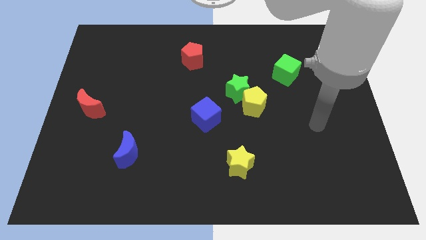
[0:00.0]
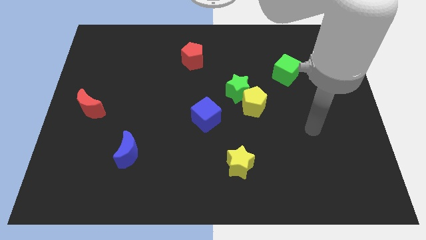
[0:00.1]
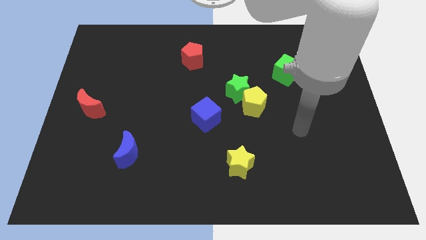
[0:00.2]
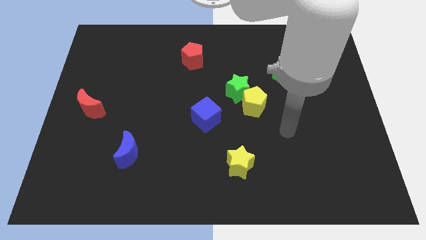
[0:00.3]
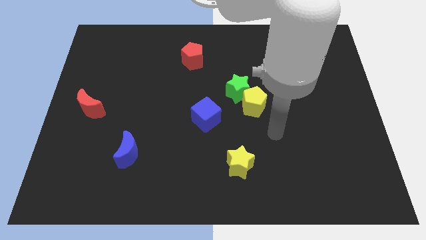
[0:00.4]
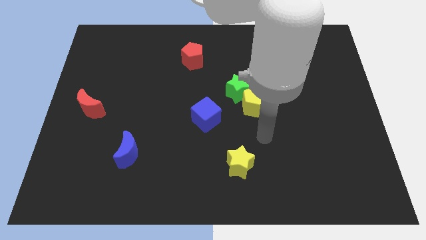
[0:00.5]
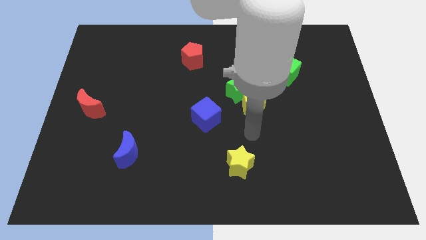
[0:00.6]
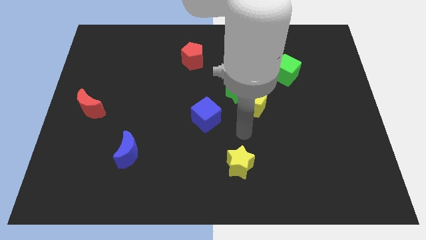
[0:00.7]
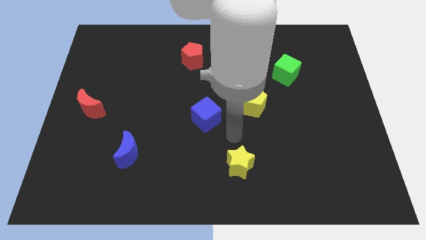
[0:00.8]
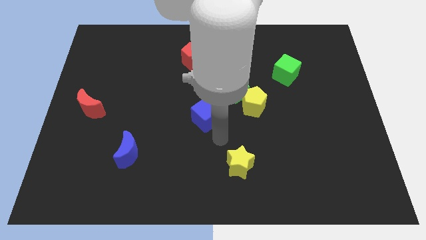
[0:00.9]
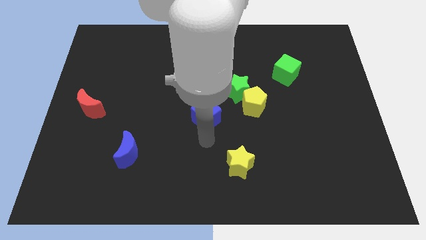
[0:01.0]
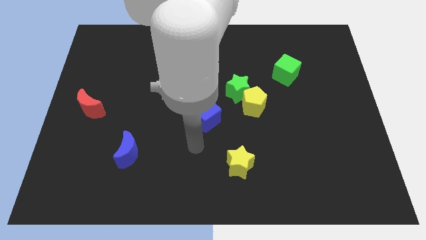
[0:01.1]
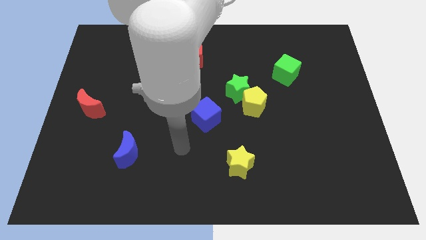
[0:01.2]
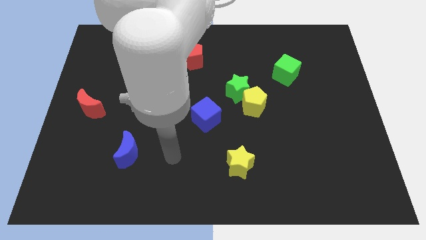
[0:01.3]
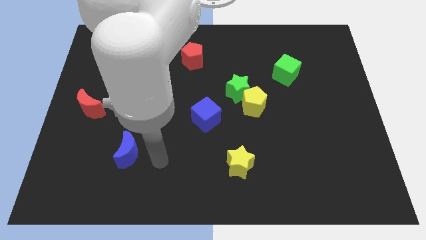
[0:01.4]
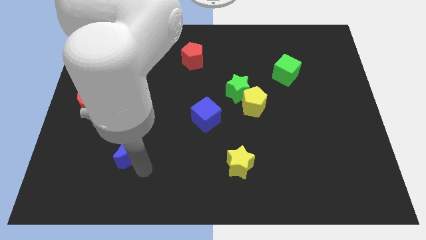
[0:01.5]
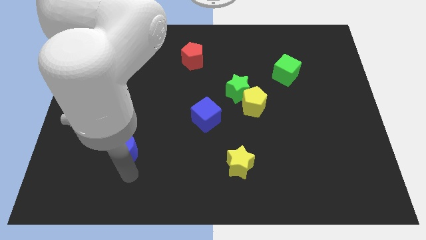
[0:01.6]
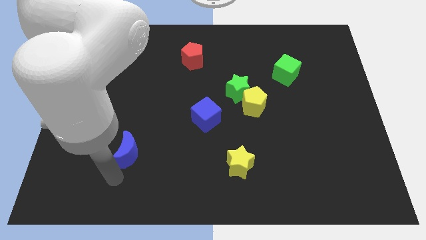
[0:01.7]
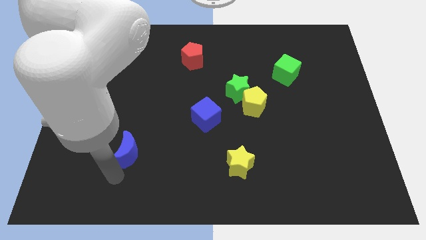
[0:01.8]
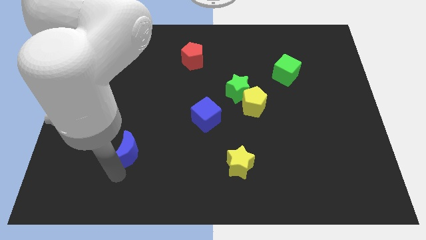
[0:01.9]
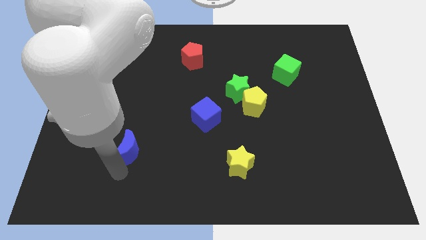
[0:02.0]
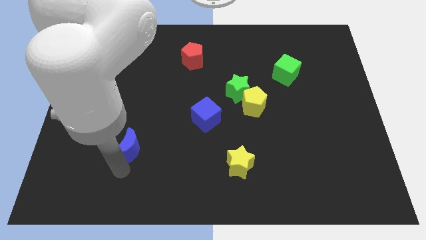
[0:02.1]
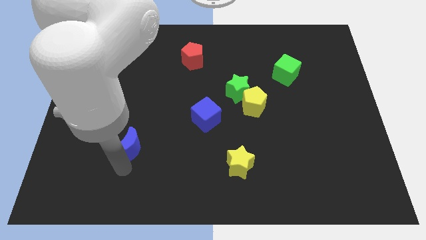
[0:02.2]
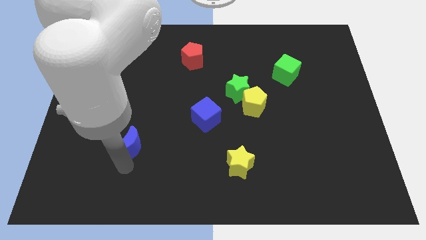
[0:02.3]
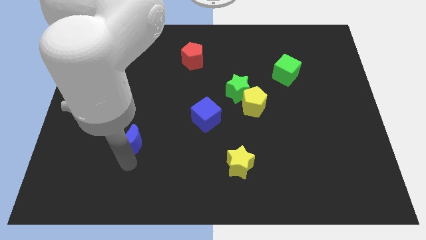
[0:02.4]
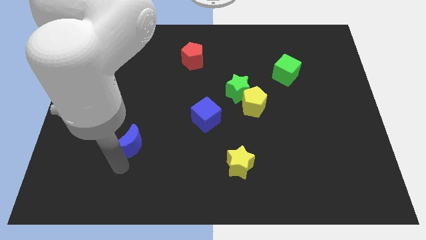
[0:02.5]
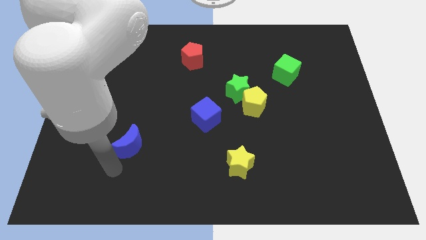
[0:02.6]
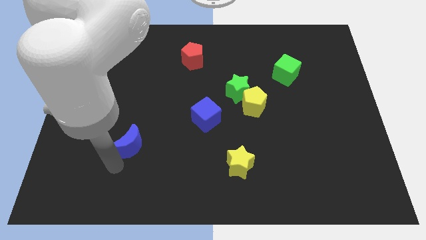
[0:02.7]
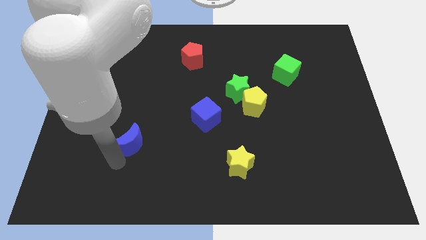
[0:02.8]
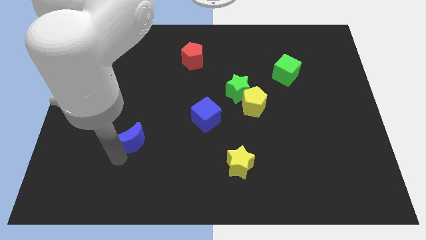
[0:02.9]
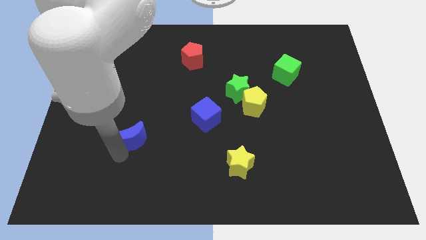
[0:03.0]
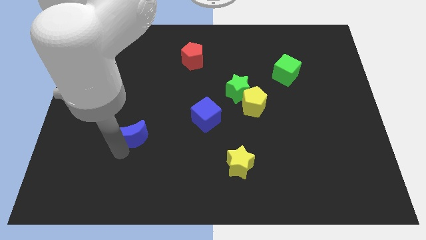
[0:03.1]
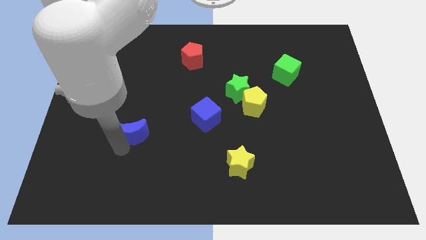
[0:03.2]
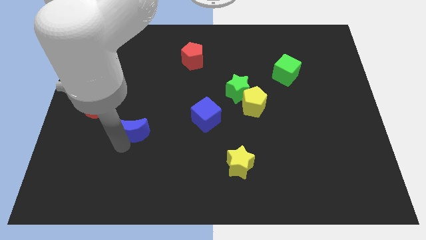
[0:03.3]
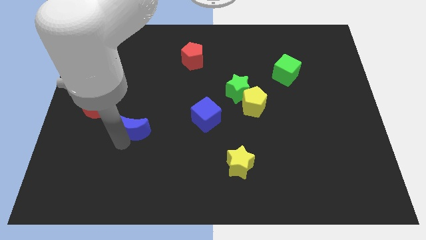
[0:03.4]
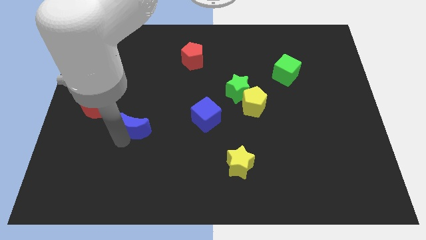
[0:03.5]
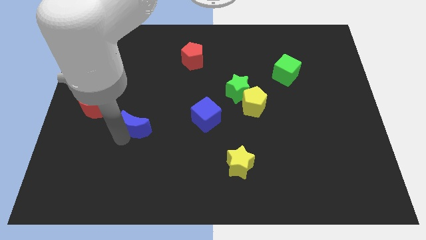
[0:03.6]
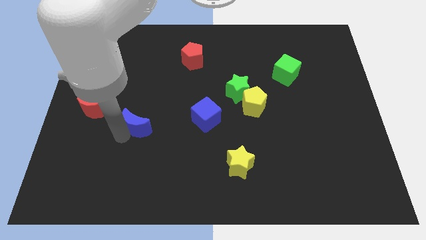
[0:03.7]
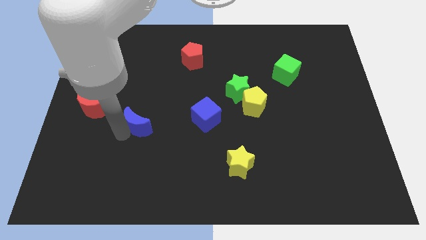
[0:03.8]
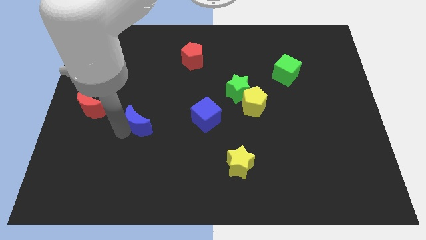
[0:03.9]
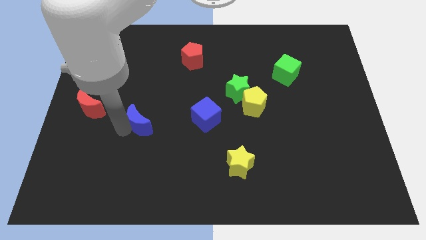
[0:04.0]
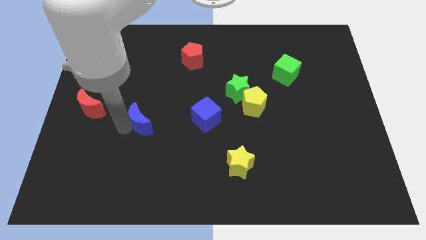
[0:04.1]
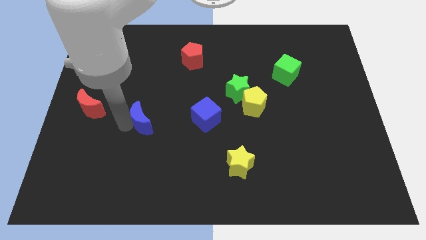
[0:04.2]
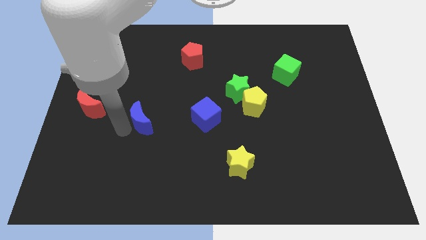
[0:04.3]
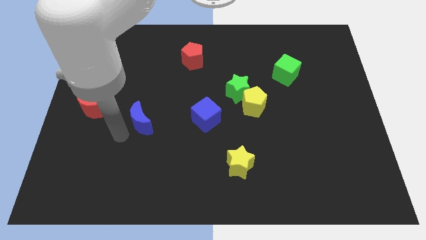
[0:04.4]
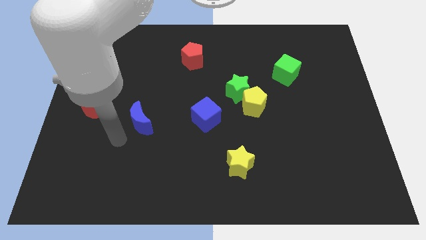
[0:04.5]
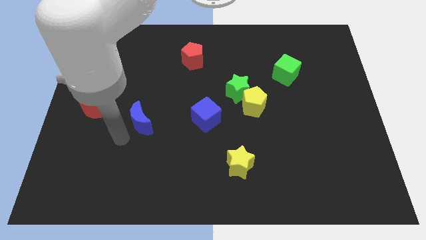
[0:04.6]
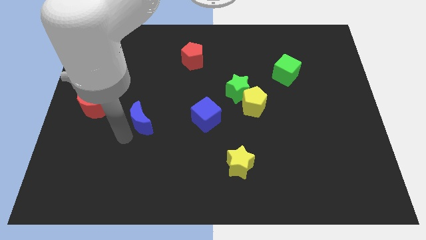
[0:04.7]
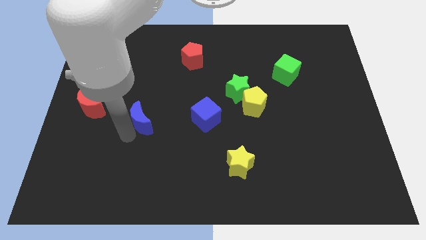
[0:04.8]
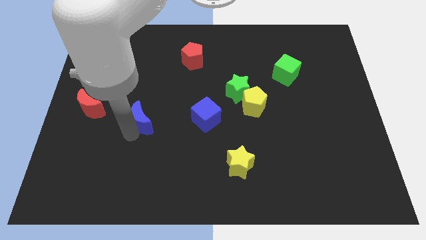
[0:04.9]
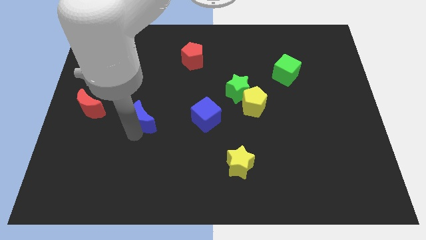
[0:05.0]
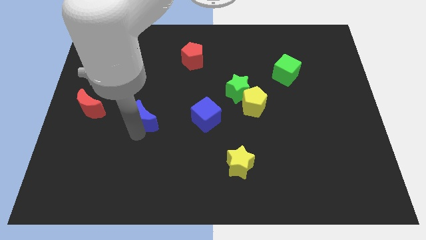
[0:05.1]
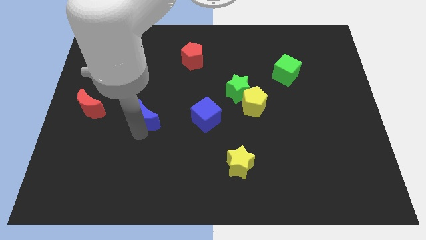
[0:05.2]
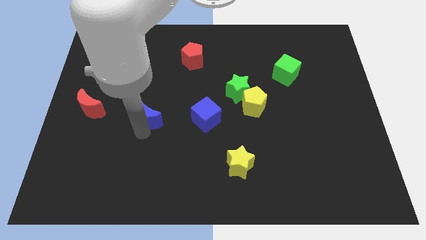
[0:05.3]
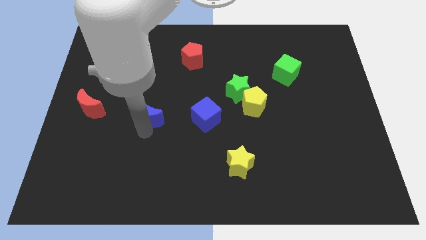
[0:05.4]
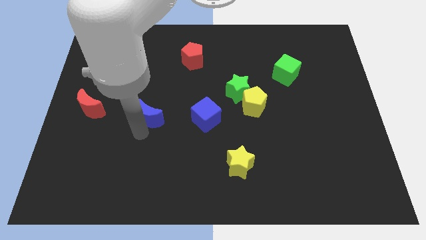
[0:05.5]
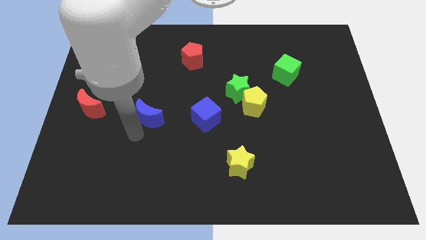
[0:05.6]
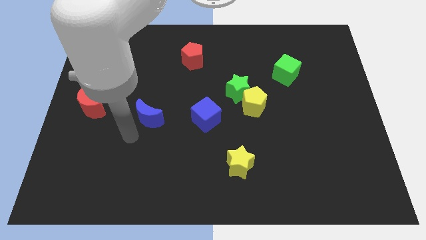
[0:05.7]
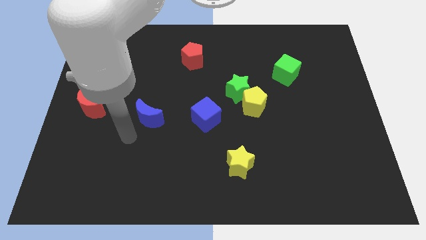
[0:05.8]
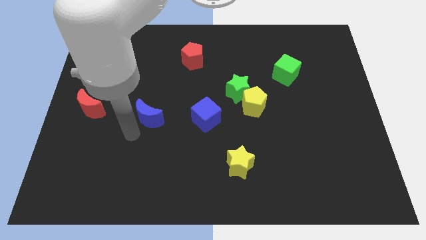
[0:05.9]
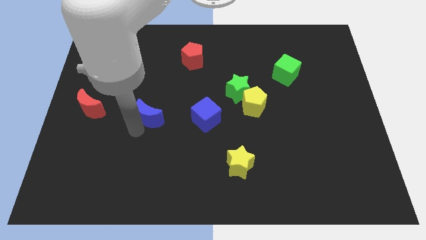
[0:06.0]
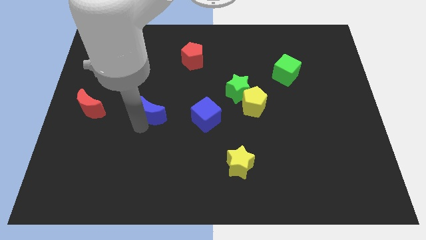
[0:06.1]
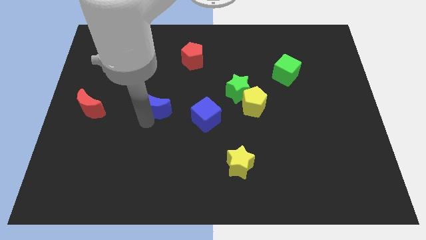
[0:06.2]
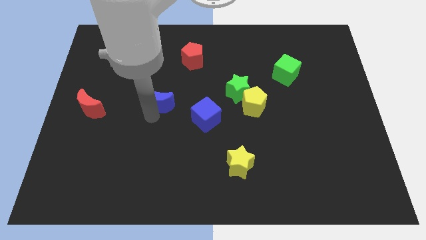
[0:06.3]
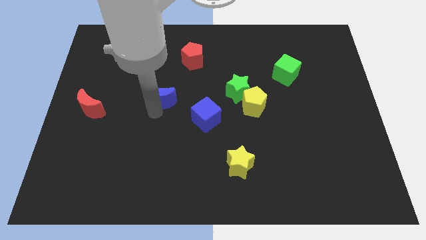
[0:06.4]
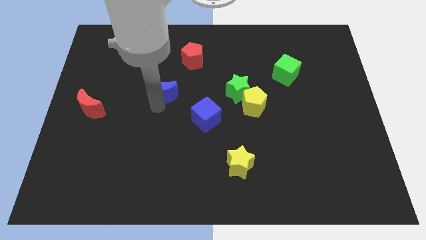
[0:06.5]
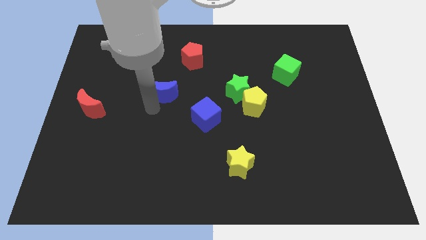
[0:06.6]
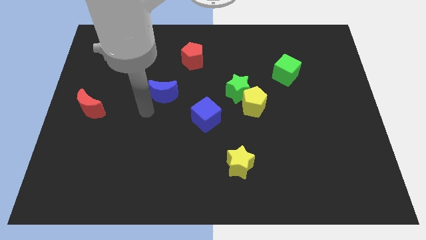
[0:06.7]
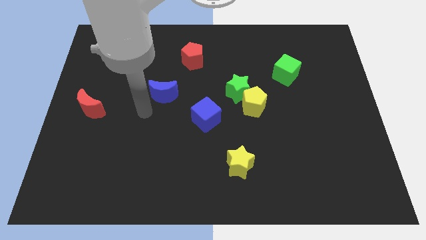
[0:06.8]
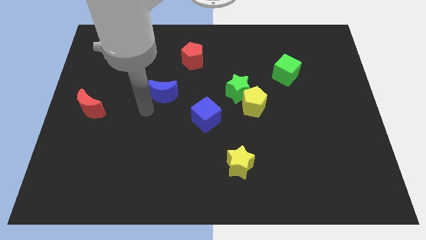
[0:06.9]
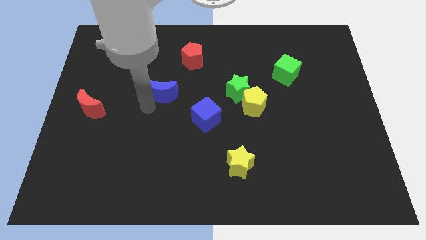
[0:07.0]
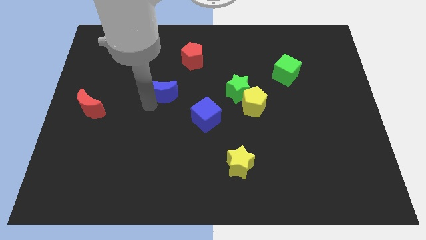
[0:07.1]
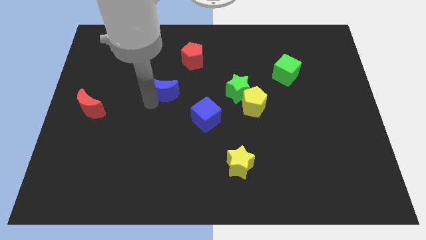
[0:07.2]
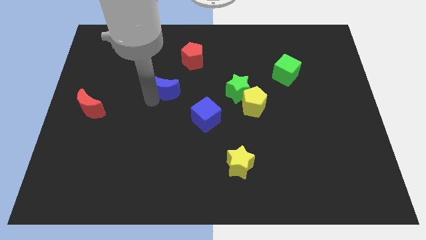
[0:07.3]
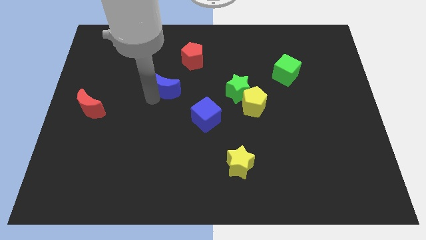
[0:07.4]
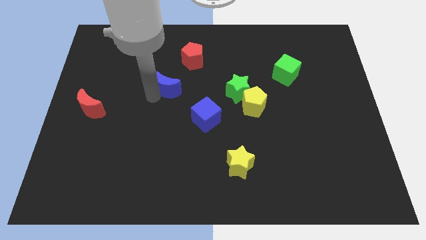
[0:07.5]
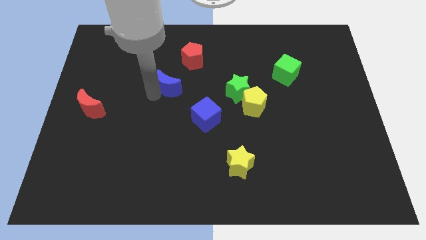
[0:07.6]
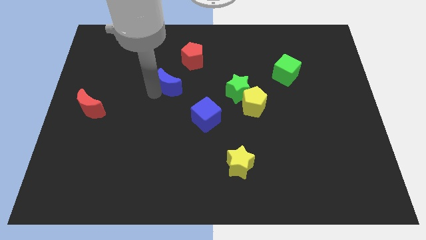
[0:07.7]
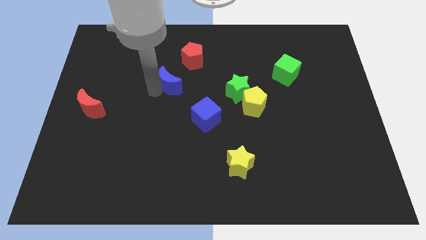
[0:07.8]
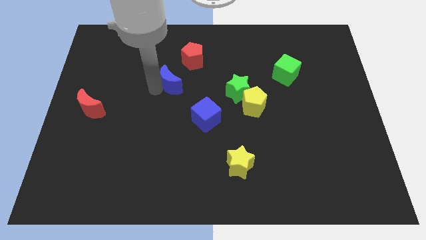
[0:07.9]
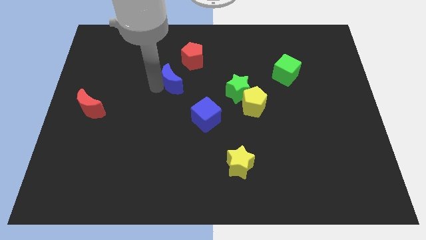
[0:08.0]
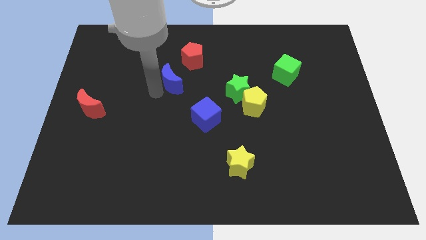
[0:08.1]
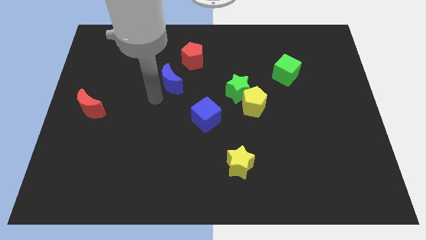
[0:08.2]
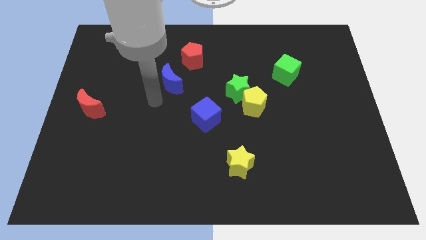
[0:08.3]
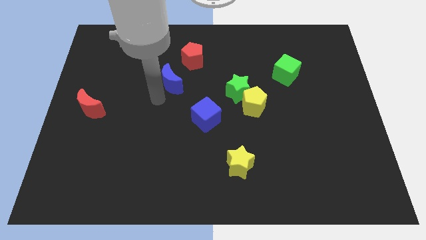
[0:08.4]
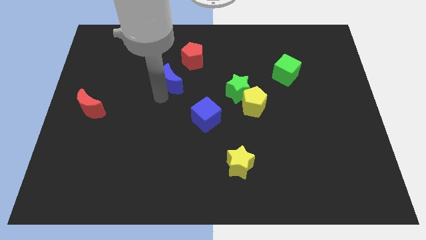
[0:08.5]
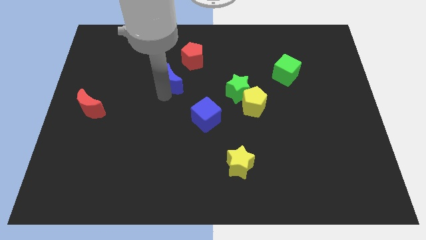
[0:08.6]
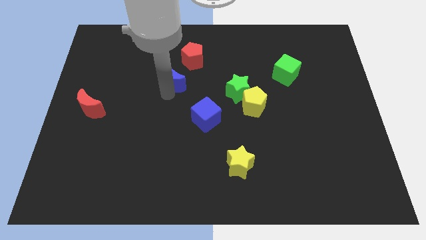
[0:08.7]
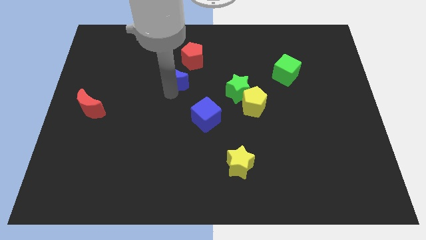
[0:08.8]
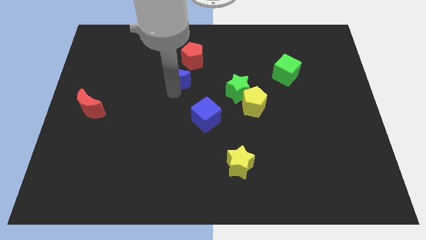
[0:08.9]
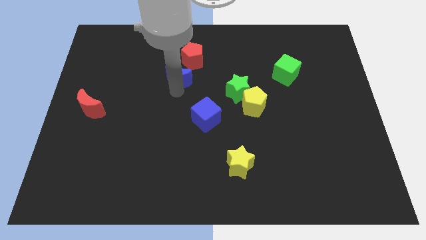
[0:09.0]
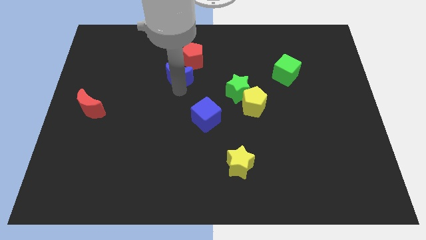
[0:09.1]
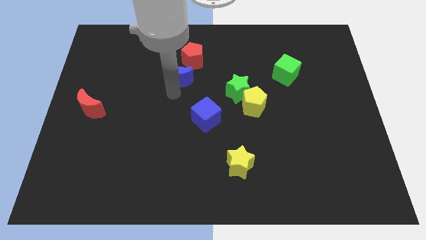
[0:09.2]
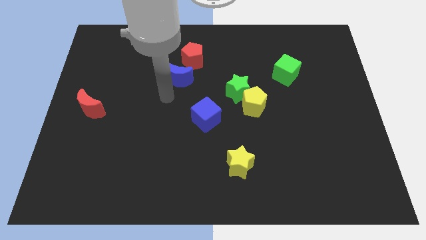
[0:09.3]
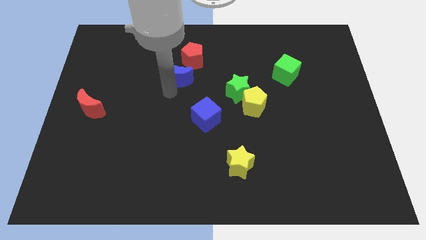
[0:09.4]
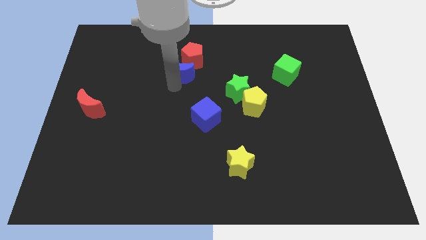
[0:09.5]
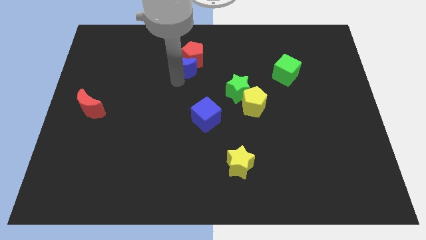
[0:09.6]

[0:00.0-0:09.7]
move the blue moon towards the red pentagon
